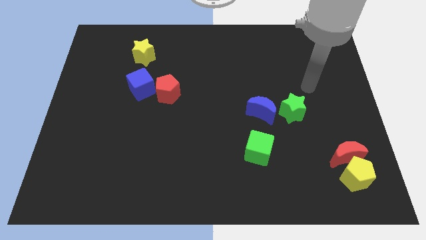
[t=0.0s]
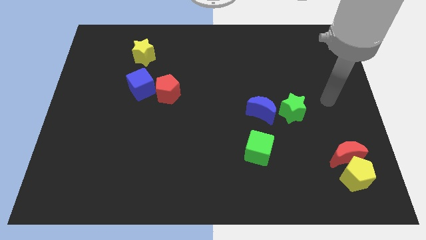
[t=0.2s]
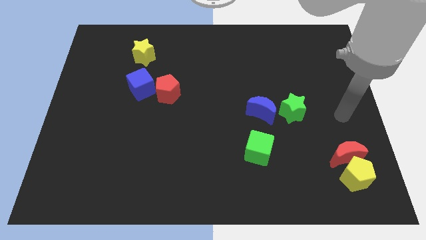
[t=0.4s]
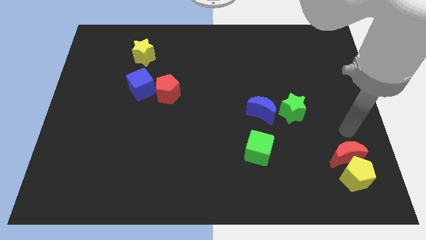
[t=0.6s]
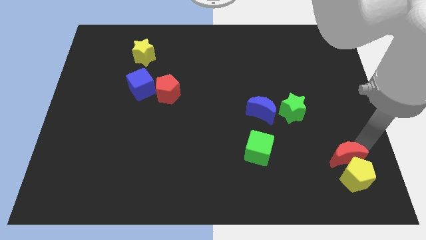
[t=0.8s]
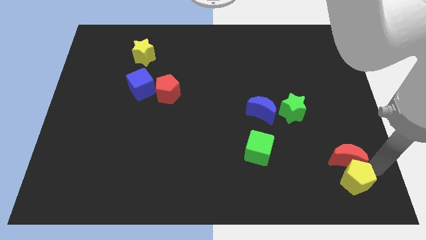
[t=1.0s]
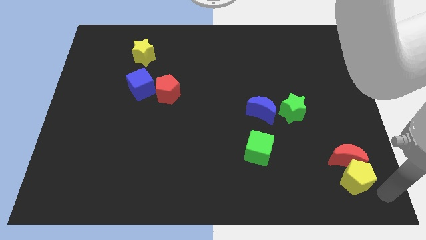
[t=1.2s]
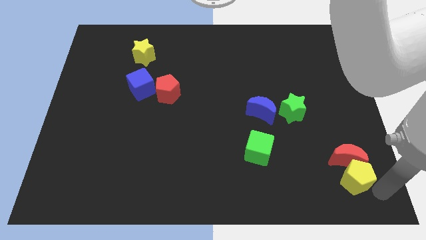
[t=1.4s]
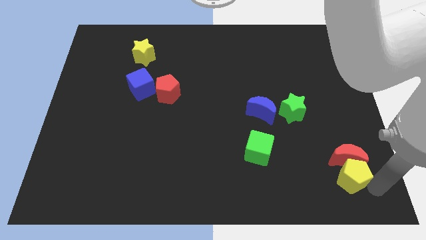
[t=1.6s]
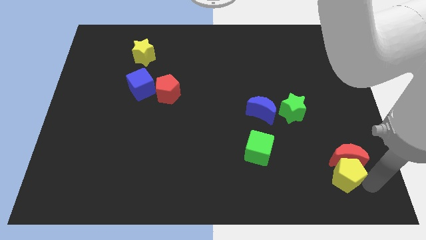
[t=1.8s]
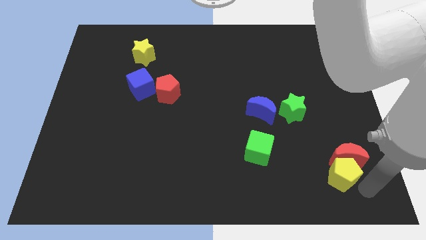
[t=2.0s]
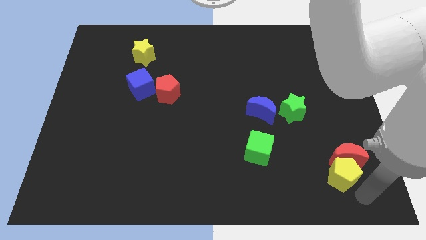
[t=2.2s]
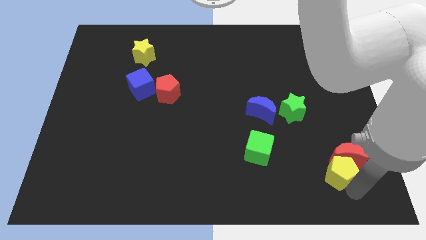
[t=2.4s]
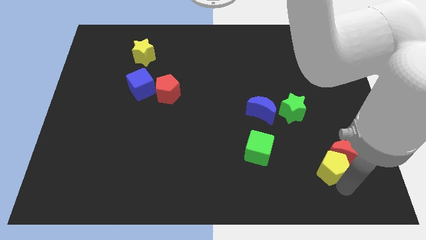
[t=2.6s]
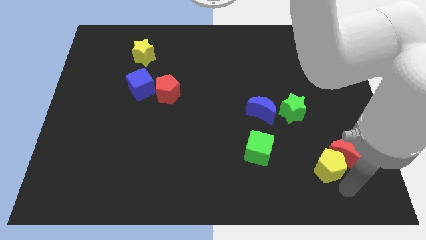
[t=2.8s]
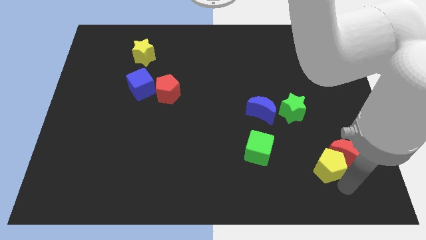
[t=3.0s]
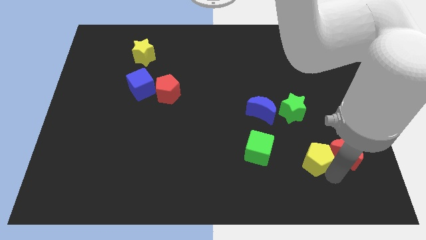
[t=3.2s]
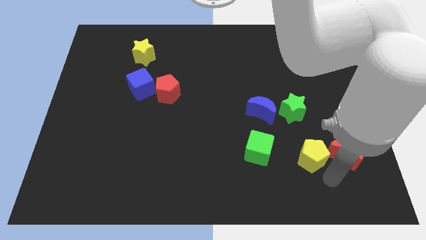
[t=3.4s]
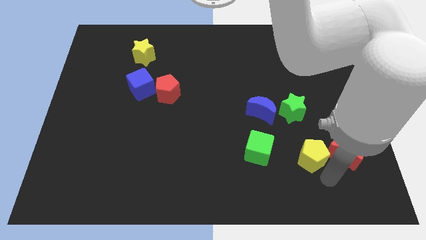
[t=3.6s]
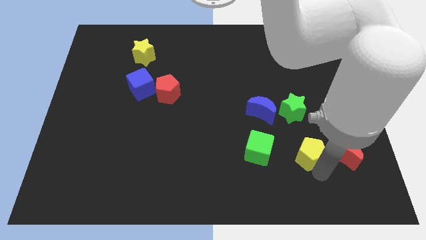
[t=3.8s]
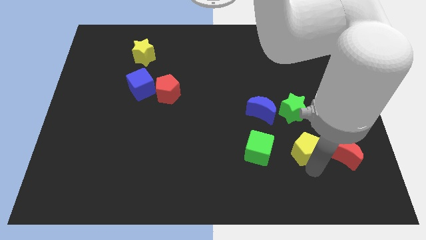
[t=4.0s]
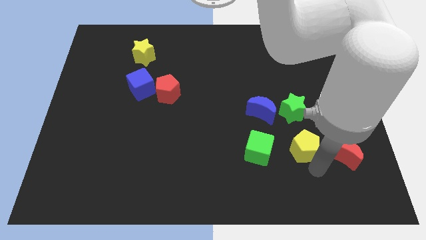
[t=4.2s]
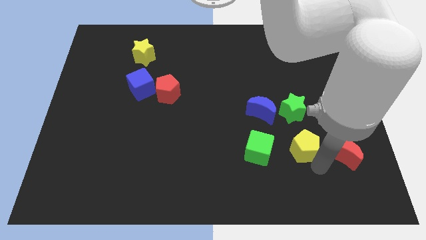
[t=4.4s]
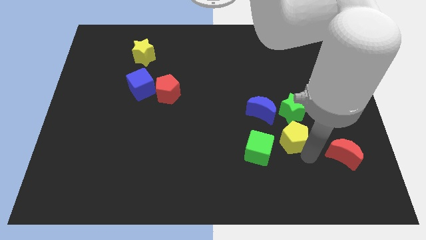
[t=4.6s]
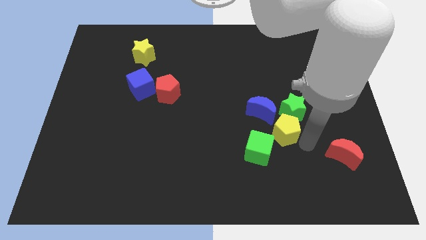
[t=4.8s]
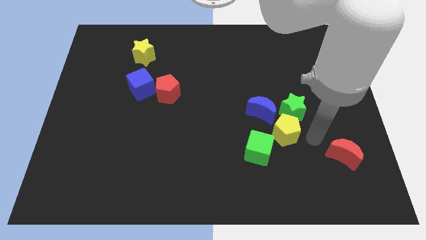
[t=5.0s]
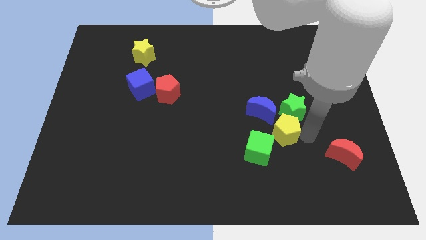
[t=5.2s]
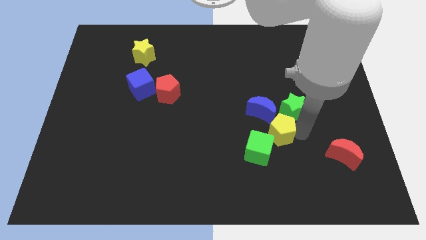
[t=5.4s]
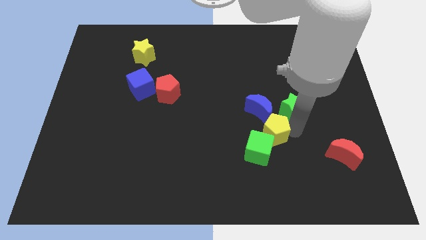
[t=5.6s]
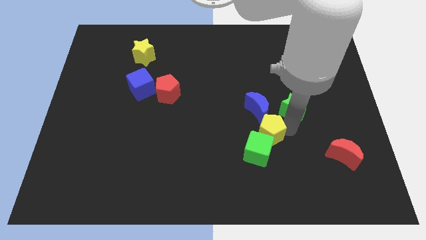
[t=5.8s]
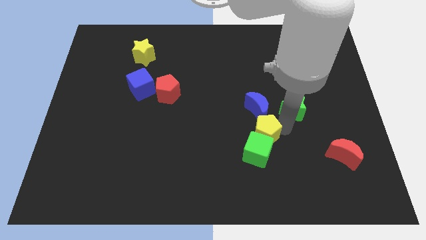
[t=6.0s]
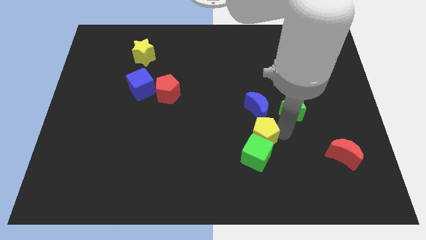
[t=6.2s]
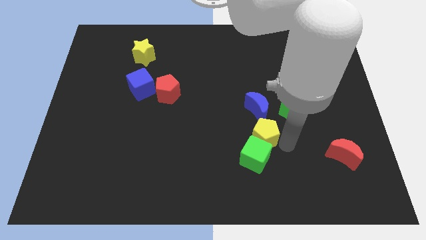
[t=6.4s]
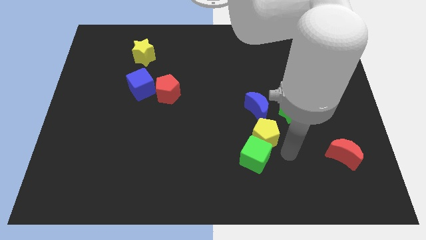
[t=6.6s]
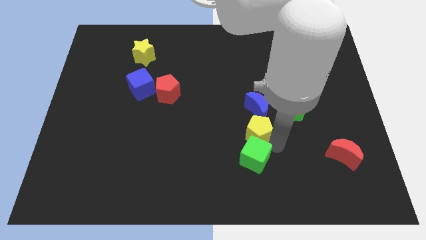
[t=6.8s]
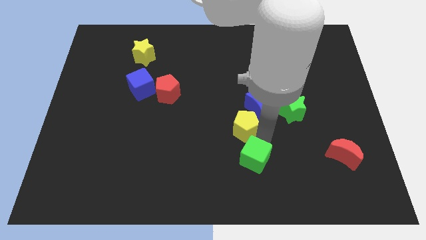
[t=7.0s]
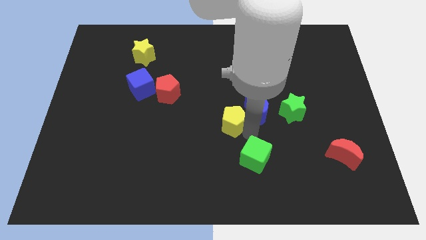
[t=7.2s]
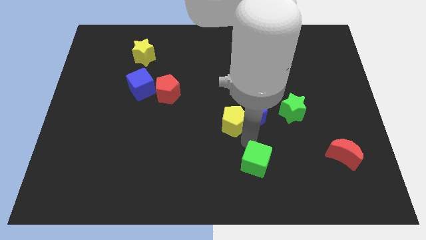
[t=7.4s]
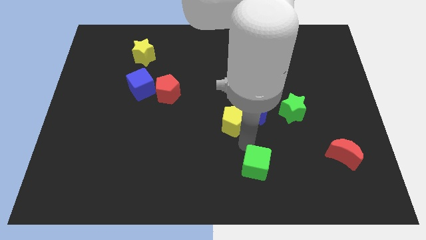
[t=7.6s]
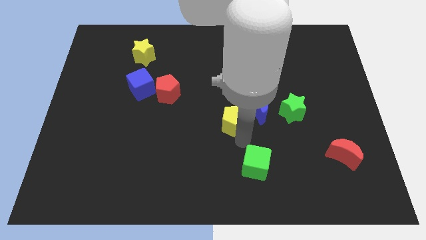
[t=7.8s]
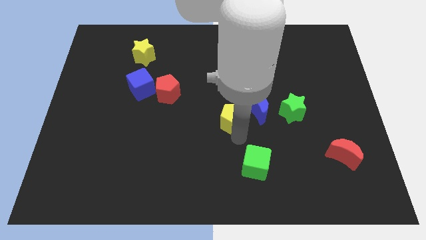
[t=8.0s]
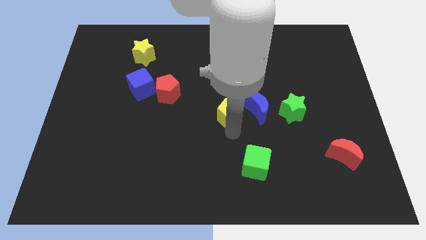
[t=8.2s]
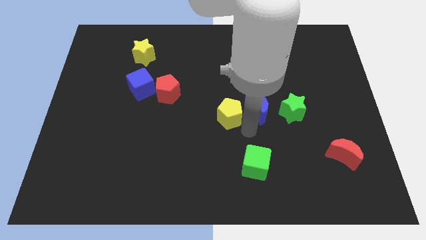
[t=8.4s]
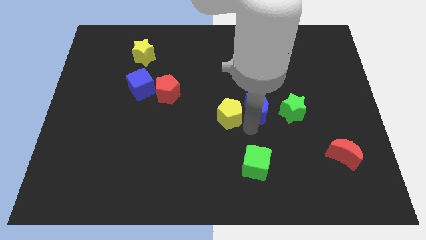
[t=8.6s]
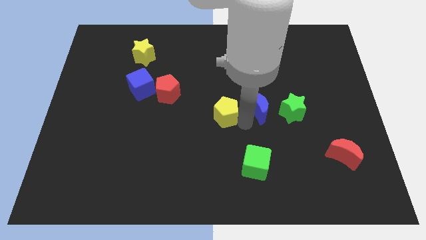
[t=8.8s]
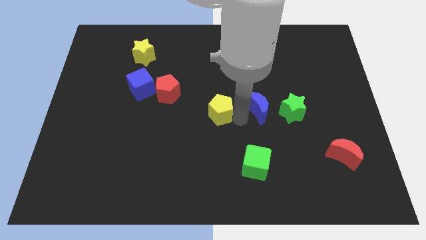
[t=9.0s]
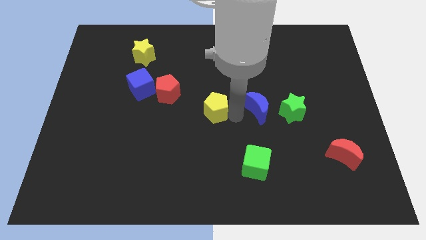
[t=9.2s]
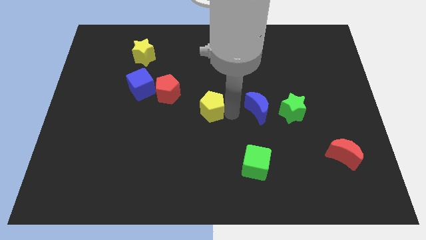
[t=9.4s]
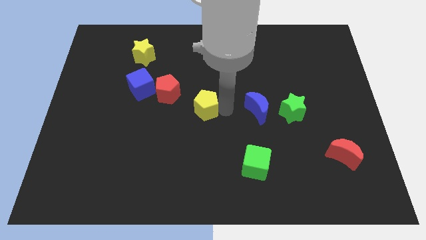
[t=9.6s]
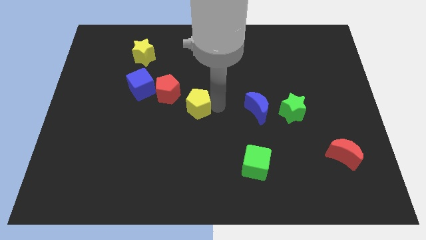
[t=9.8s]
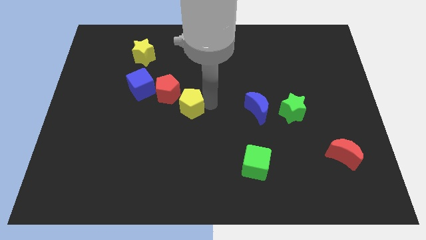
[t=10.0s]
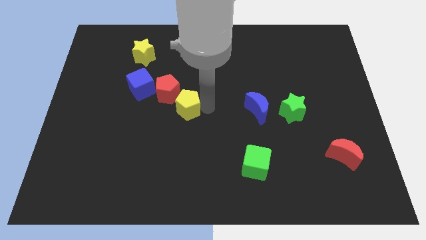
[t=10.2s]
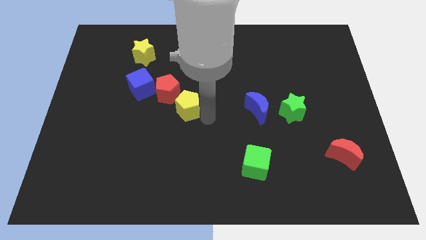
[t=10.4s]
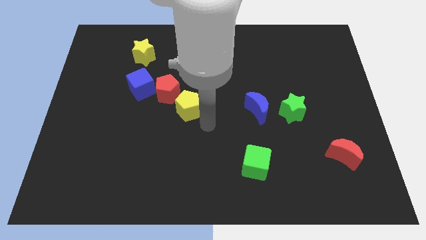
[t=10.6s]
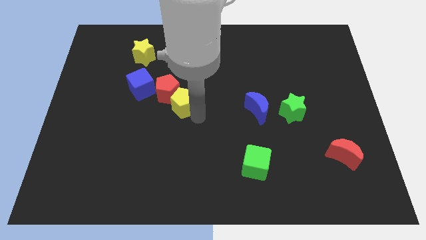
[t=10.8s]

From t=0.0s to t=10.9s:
put the yellow pentagon towards the red pentagon

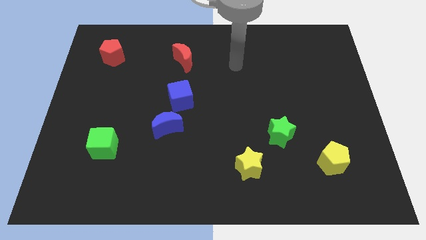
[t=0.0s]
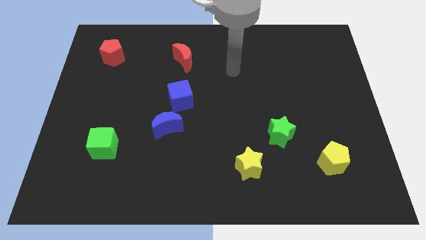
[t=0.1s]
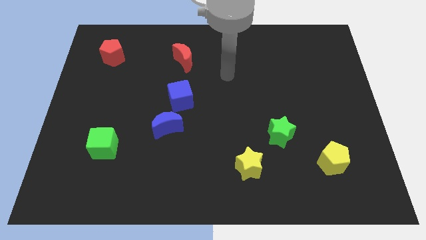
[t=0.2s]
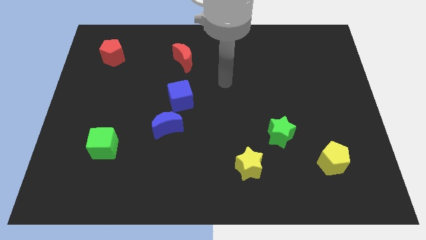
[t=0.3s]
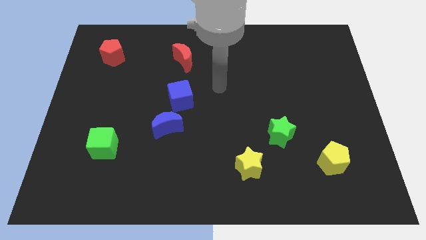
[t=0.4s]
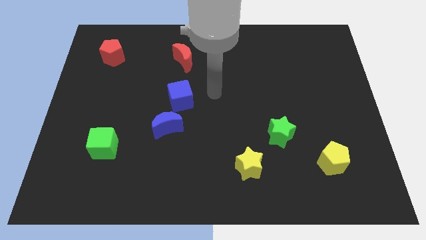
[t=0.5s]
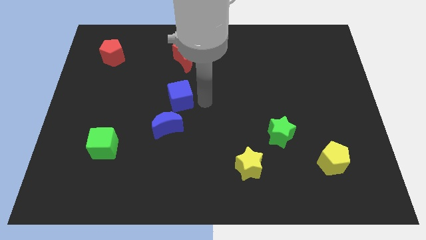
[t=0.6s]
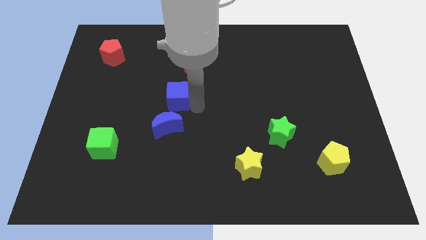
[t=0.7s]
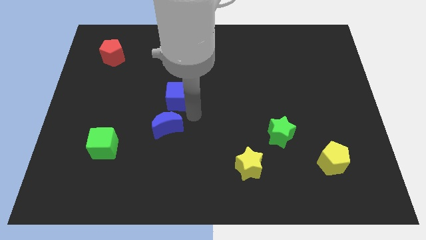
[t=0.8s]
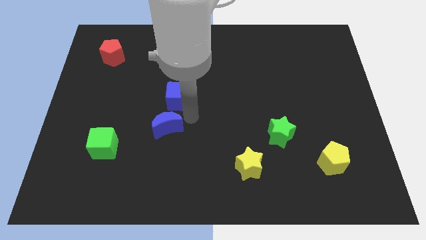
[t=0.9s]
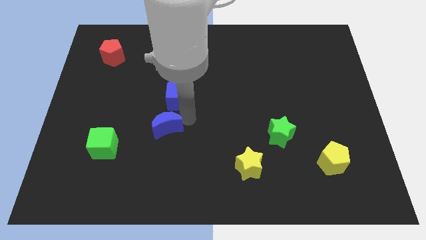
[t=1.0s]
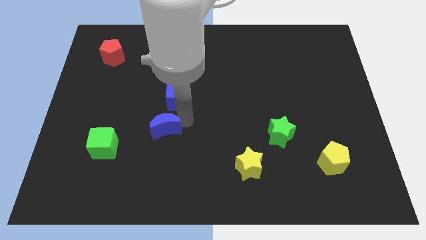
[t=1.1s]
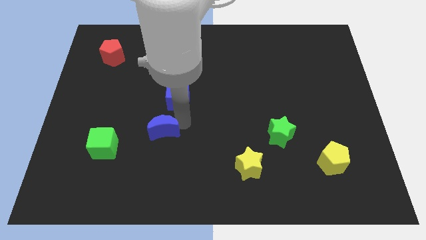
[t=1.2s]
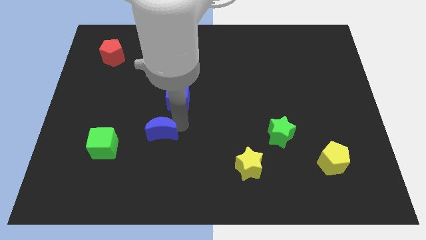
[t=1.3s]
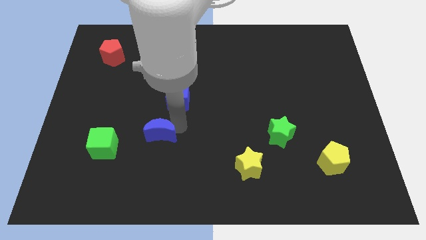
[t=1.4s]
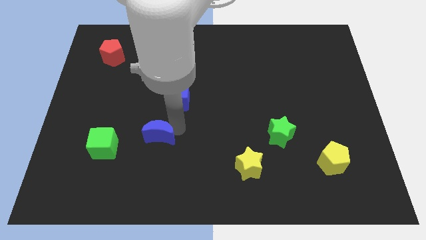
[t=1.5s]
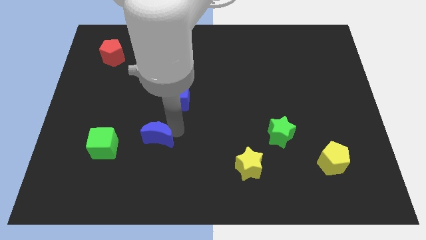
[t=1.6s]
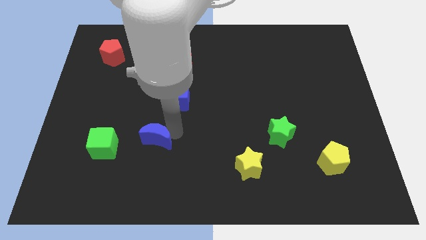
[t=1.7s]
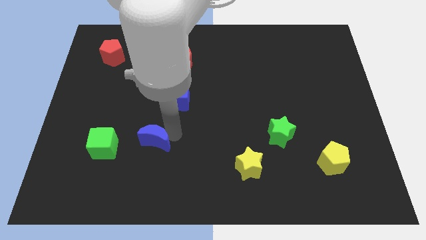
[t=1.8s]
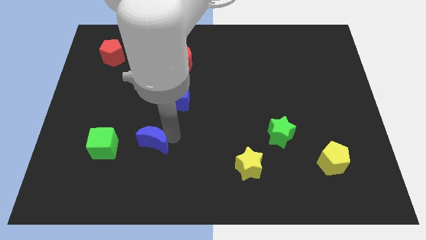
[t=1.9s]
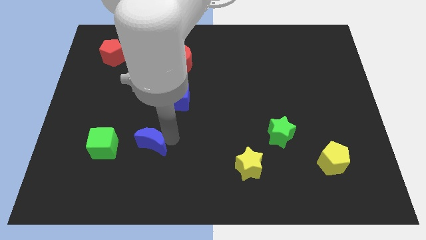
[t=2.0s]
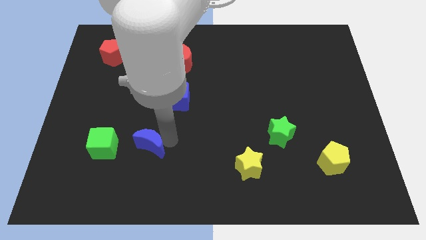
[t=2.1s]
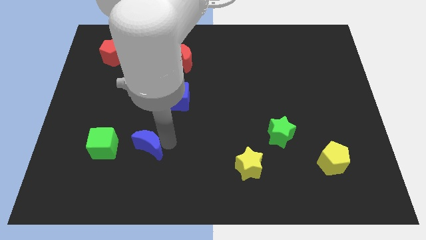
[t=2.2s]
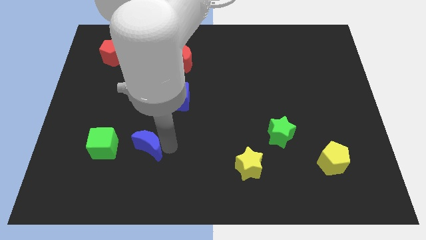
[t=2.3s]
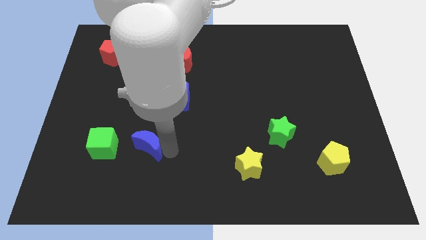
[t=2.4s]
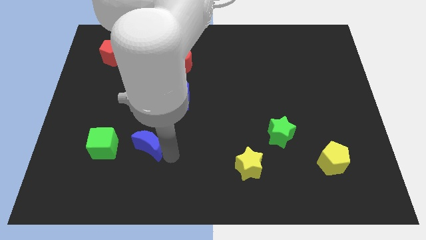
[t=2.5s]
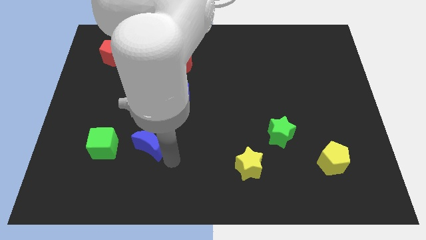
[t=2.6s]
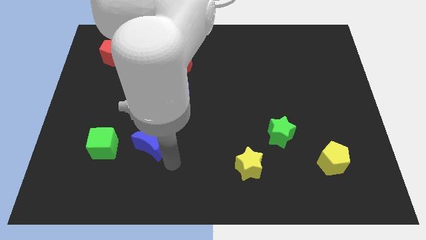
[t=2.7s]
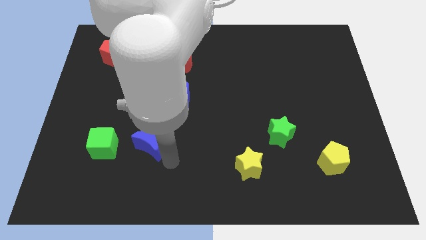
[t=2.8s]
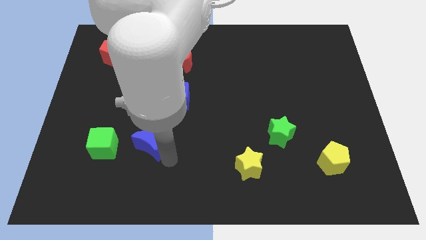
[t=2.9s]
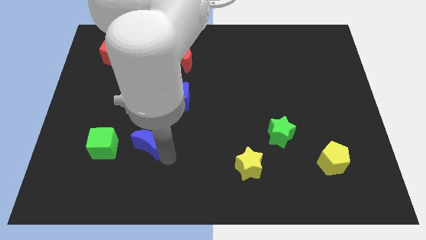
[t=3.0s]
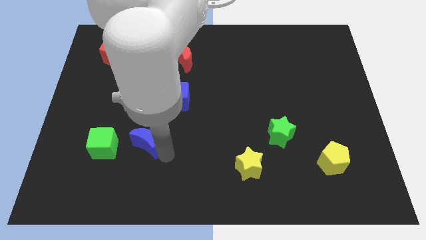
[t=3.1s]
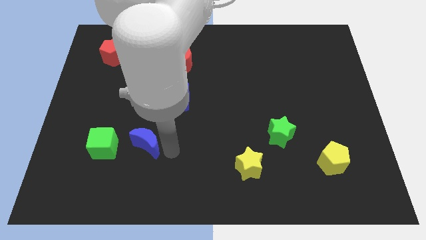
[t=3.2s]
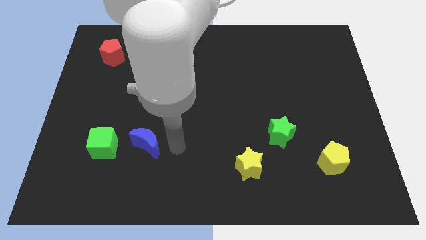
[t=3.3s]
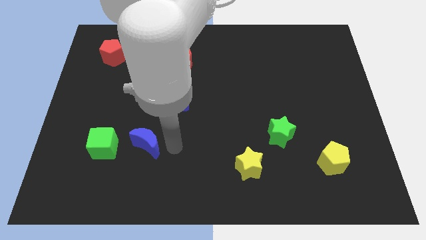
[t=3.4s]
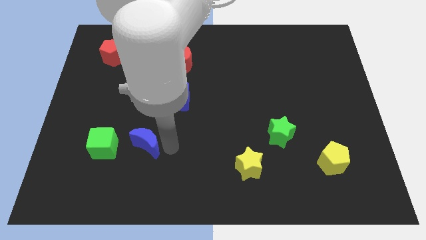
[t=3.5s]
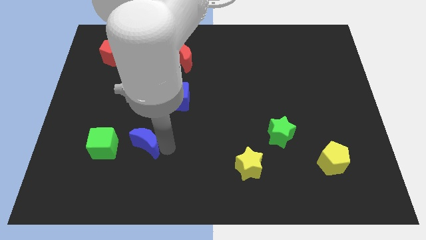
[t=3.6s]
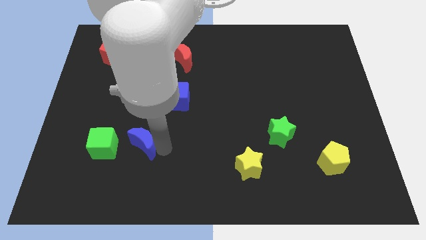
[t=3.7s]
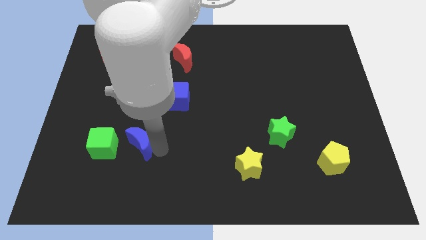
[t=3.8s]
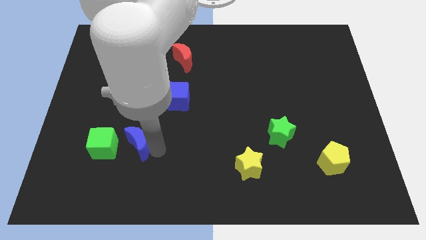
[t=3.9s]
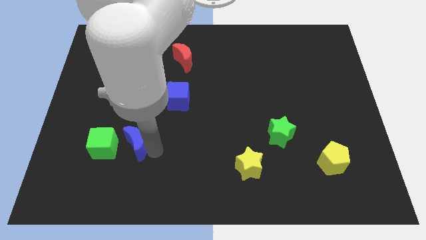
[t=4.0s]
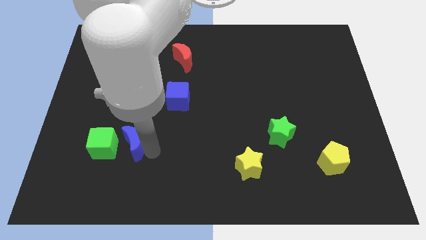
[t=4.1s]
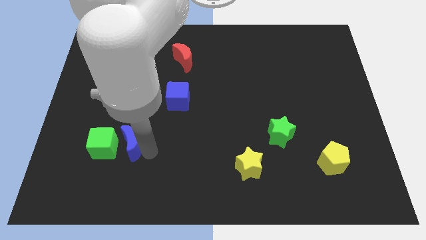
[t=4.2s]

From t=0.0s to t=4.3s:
move the blue moon close to the green cube
